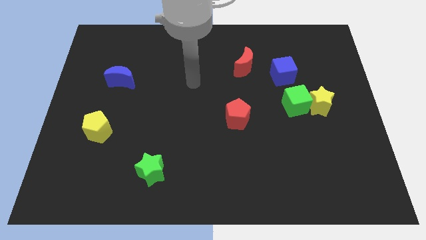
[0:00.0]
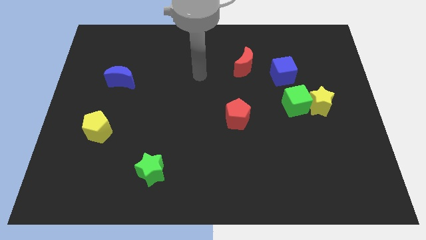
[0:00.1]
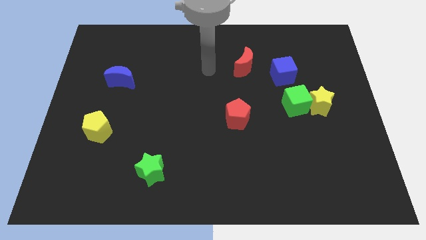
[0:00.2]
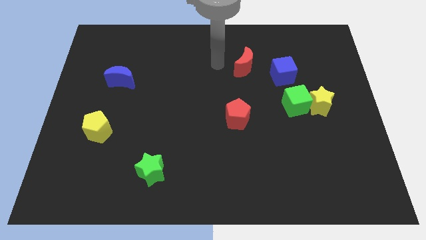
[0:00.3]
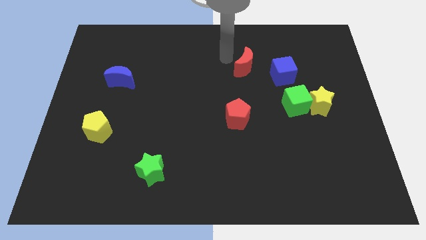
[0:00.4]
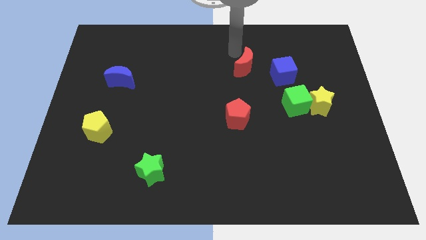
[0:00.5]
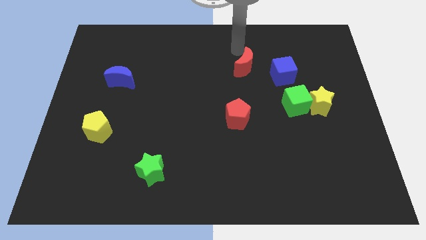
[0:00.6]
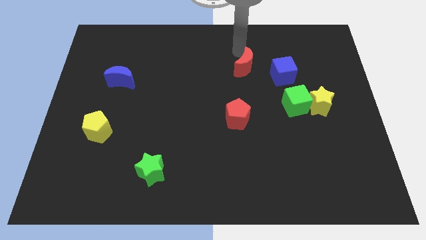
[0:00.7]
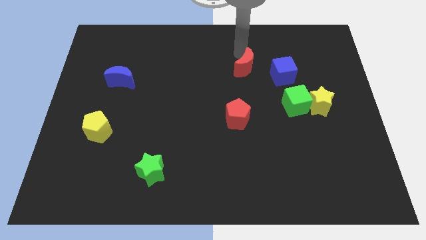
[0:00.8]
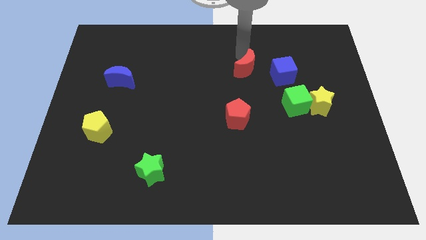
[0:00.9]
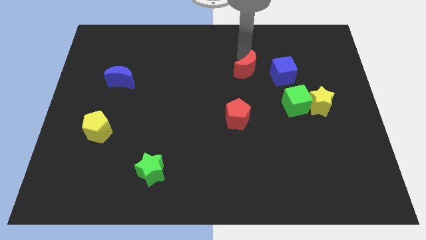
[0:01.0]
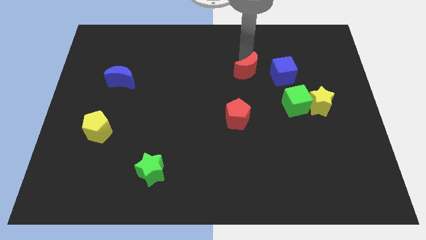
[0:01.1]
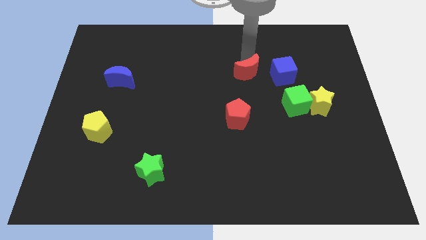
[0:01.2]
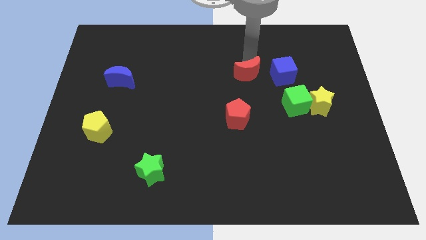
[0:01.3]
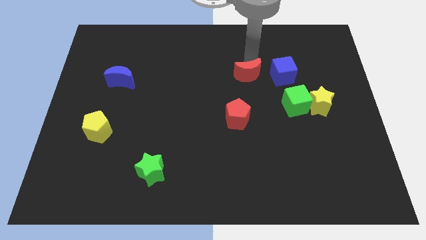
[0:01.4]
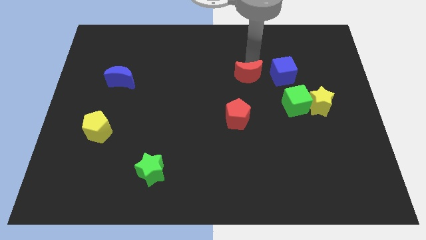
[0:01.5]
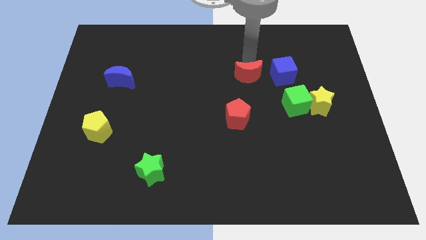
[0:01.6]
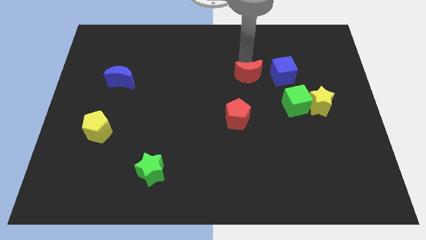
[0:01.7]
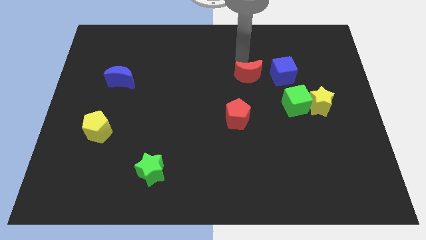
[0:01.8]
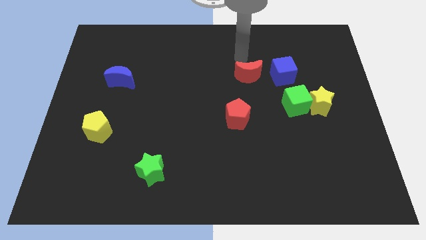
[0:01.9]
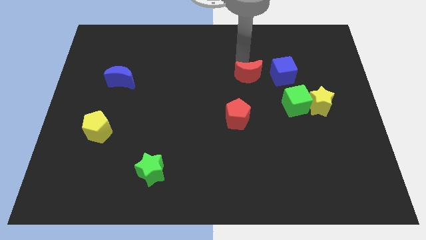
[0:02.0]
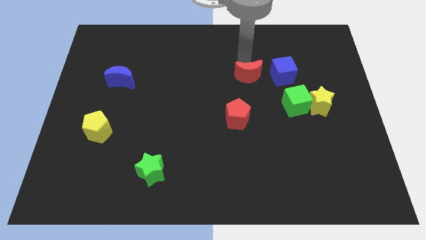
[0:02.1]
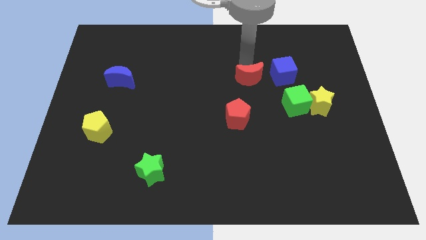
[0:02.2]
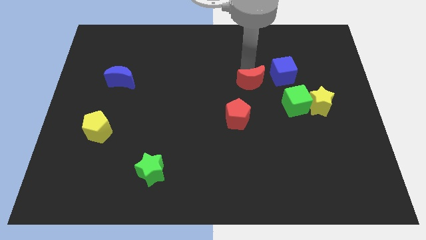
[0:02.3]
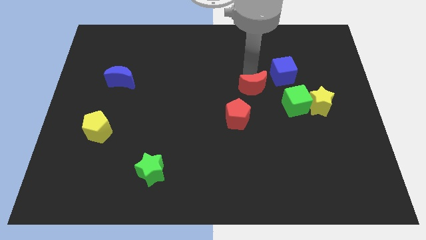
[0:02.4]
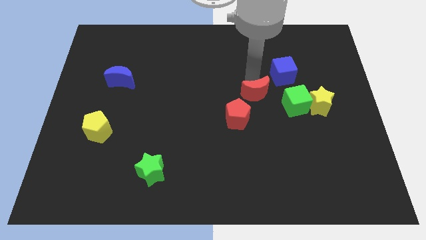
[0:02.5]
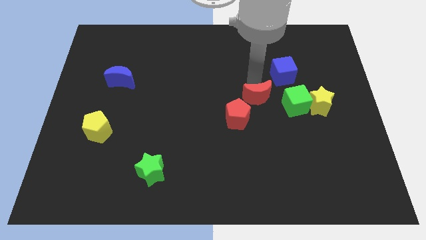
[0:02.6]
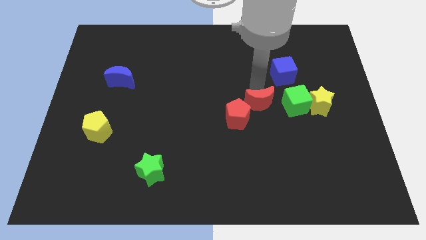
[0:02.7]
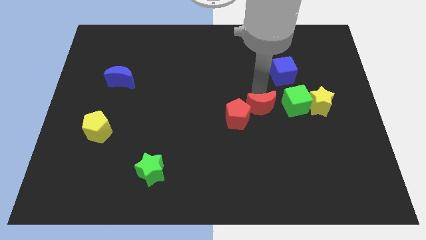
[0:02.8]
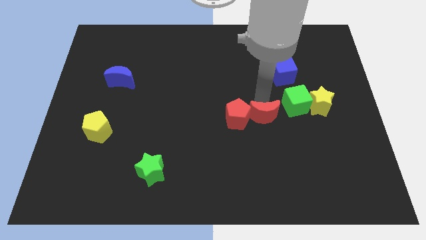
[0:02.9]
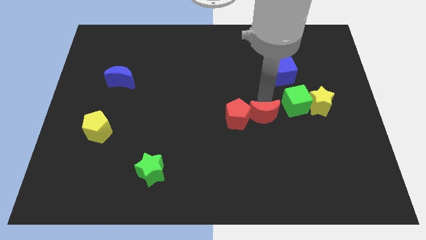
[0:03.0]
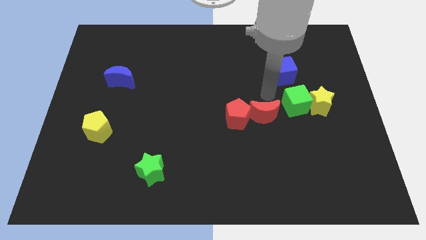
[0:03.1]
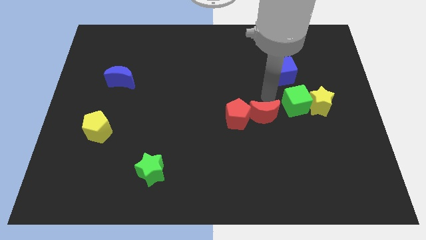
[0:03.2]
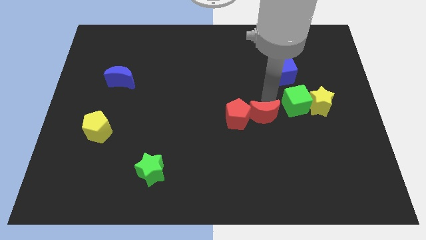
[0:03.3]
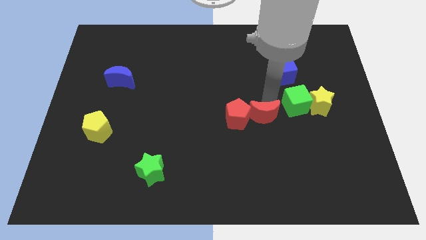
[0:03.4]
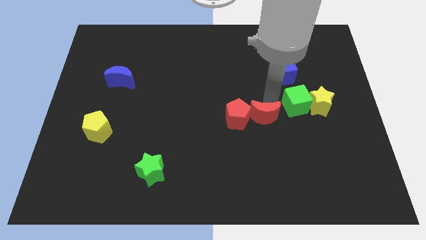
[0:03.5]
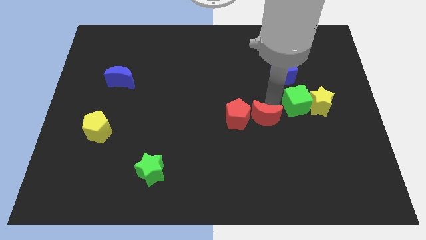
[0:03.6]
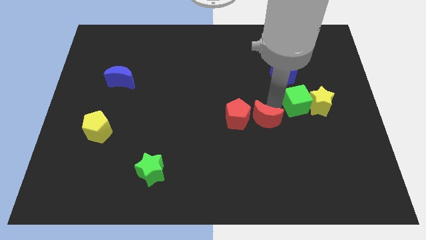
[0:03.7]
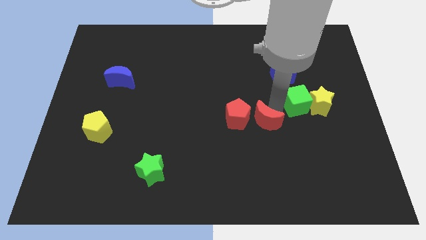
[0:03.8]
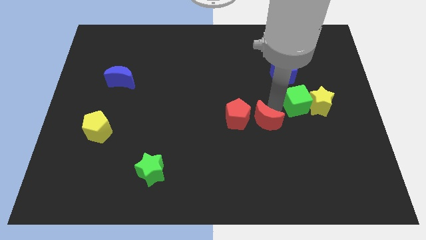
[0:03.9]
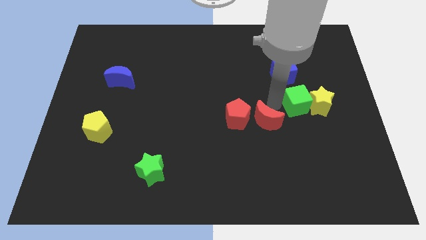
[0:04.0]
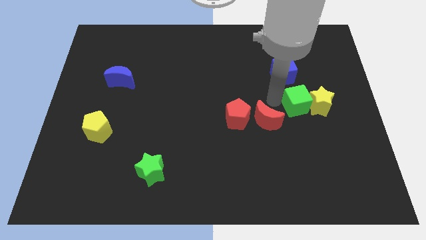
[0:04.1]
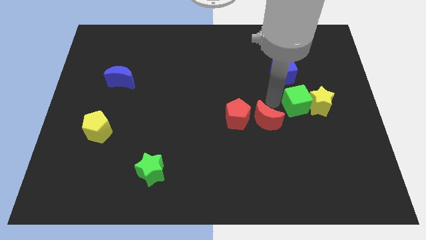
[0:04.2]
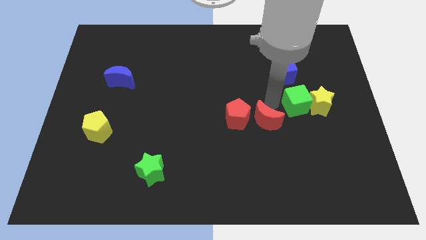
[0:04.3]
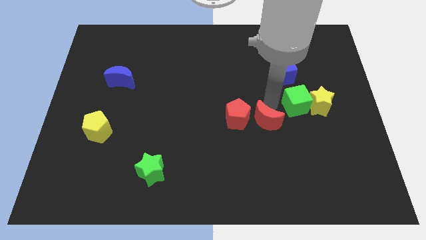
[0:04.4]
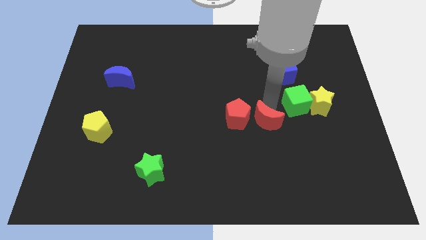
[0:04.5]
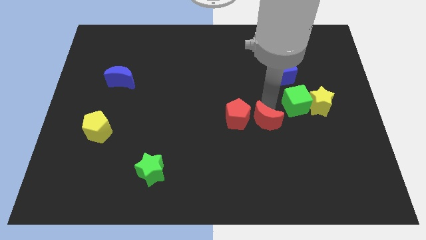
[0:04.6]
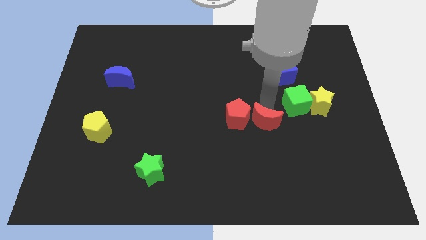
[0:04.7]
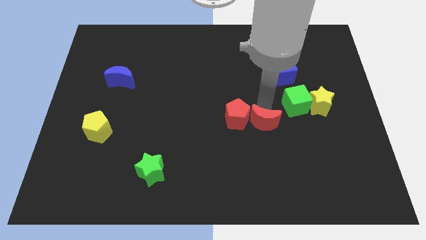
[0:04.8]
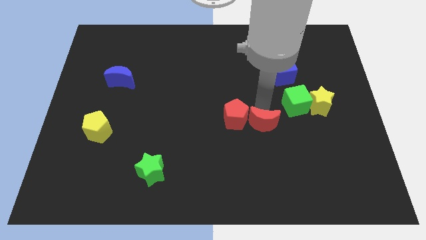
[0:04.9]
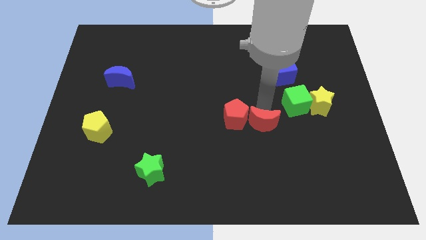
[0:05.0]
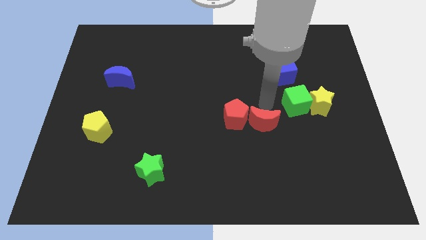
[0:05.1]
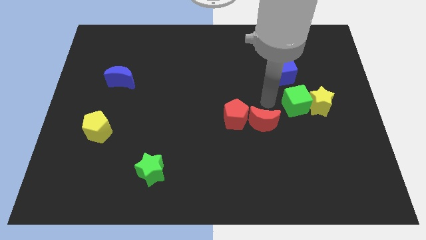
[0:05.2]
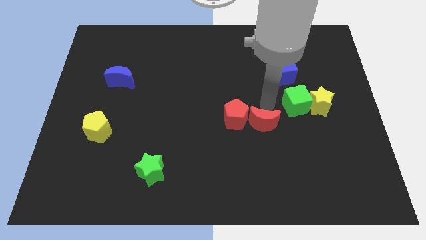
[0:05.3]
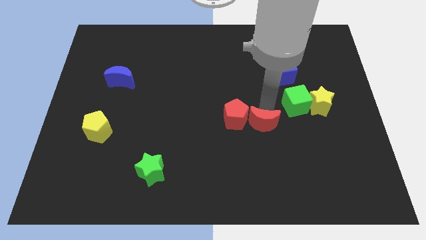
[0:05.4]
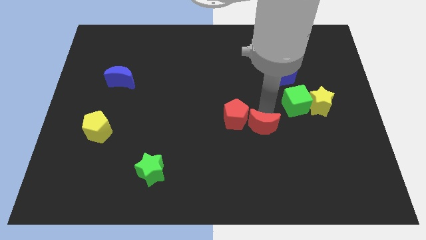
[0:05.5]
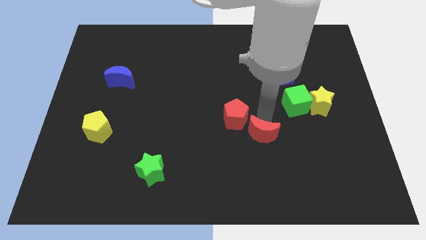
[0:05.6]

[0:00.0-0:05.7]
move the red moon downwards

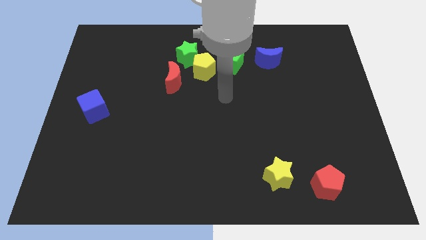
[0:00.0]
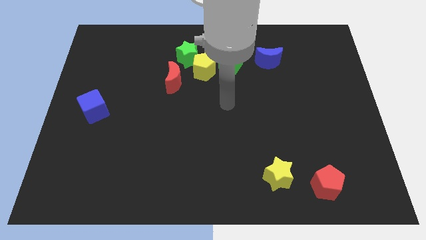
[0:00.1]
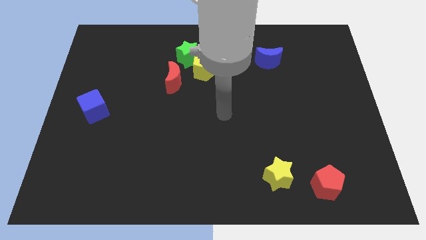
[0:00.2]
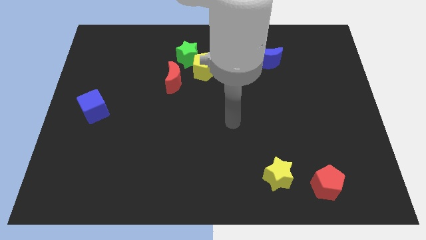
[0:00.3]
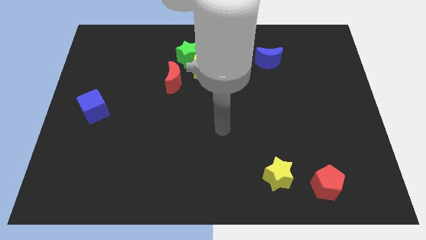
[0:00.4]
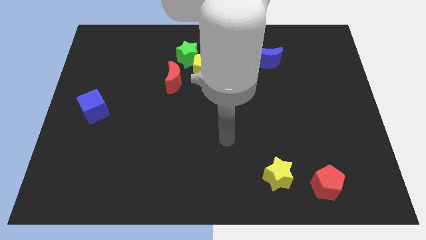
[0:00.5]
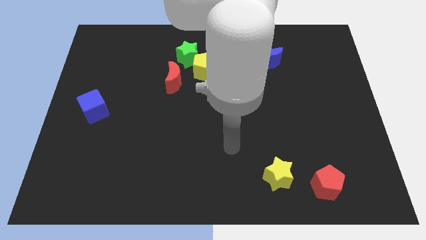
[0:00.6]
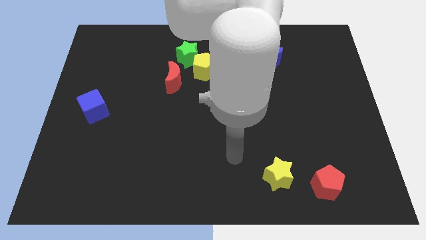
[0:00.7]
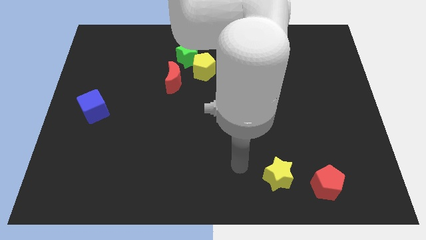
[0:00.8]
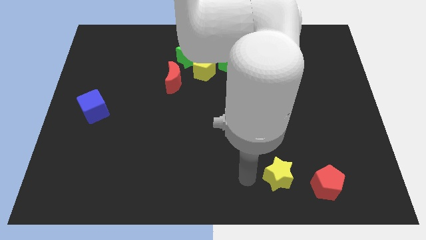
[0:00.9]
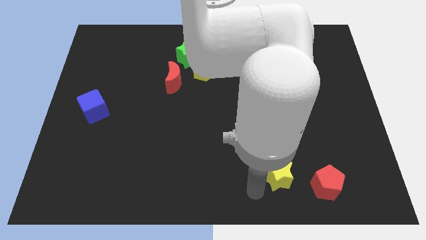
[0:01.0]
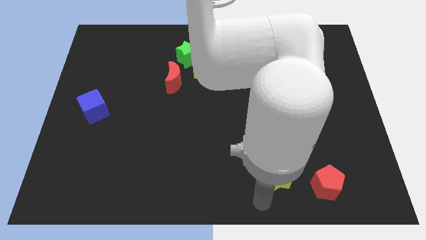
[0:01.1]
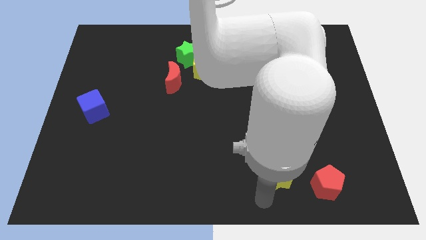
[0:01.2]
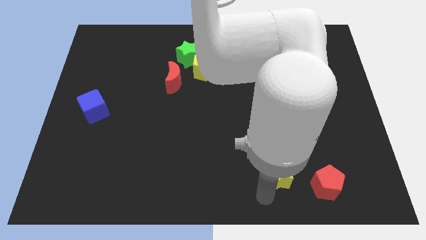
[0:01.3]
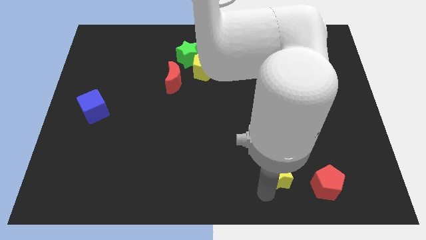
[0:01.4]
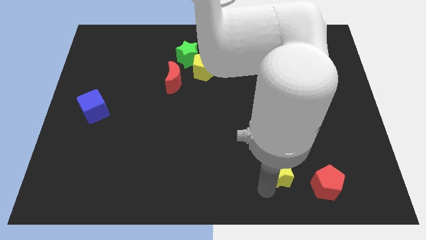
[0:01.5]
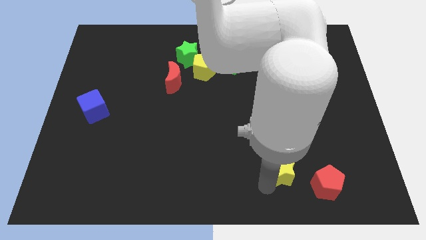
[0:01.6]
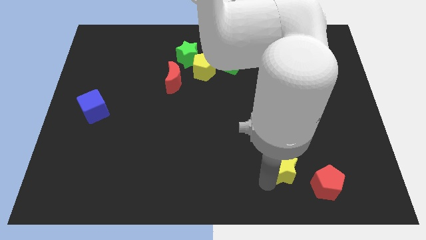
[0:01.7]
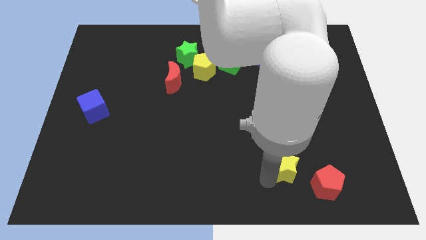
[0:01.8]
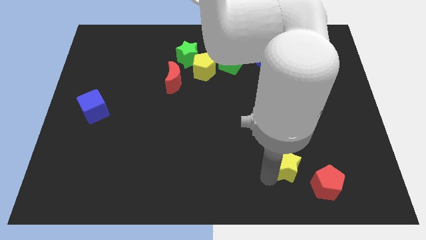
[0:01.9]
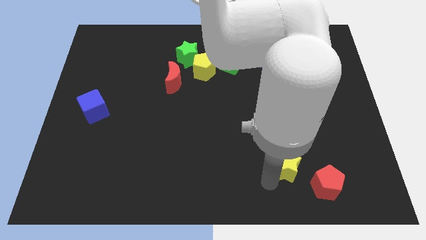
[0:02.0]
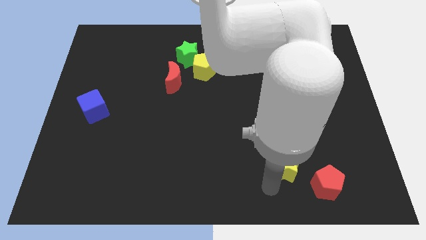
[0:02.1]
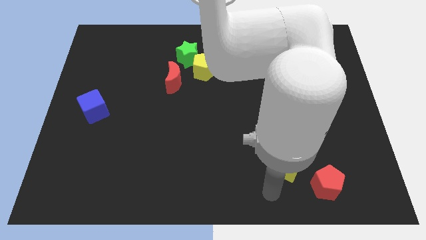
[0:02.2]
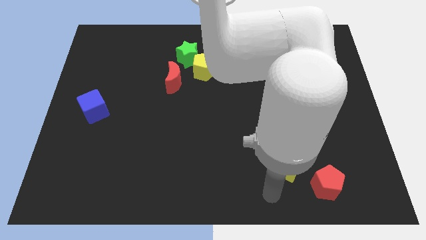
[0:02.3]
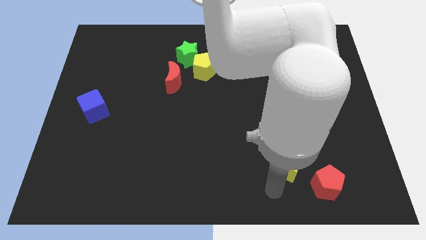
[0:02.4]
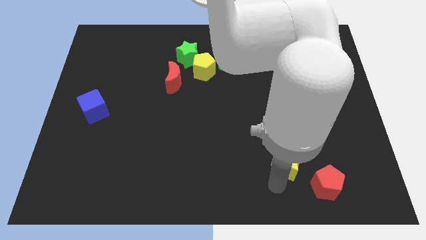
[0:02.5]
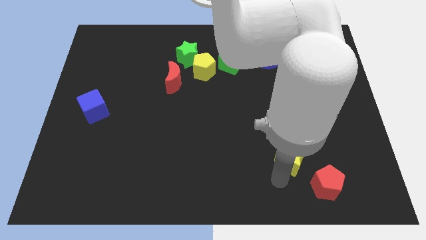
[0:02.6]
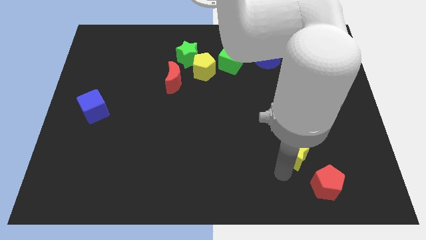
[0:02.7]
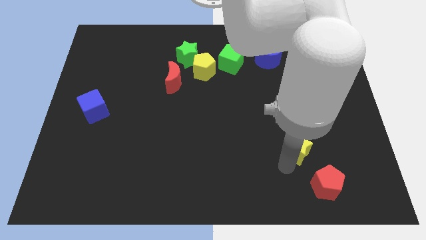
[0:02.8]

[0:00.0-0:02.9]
push the yellow star upwards and right diagonally a bit
